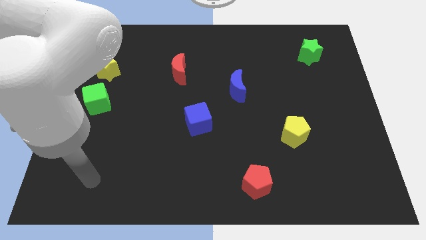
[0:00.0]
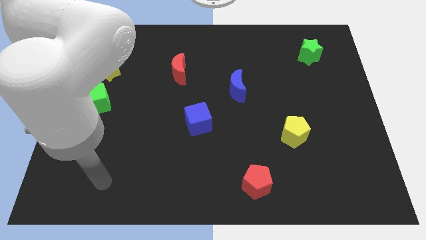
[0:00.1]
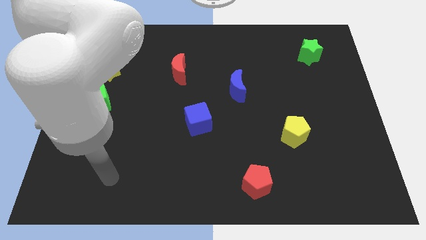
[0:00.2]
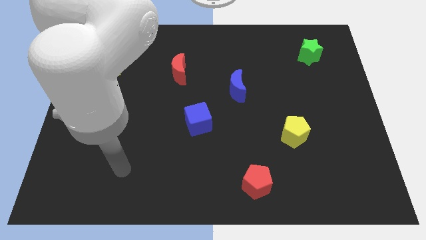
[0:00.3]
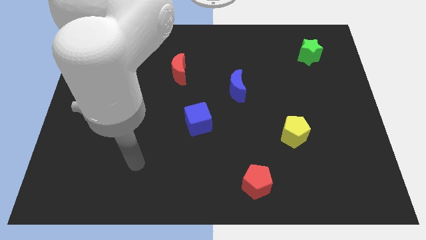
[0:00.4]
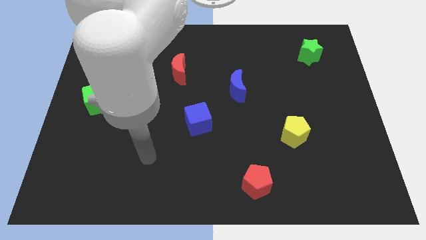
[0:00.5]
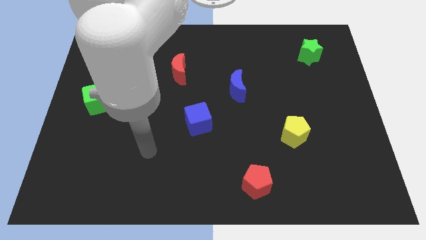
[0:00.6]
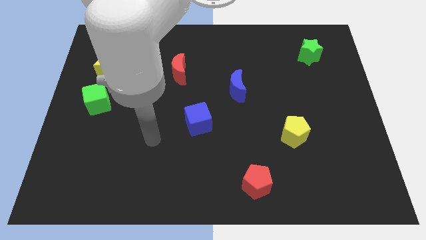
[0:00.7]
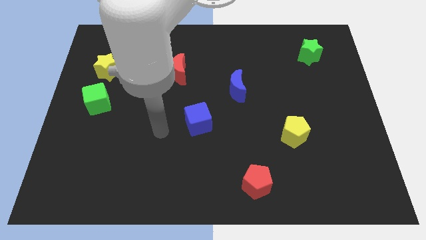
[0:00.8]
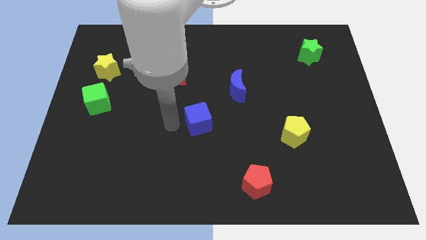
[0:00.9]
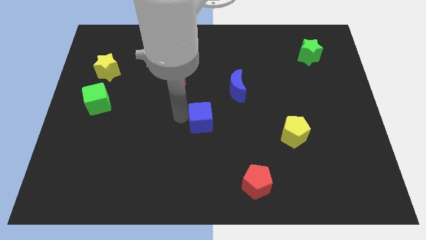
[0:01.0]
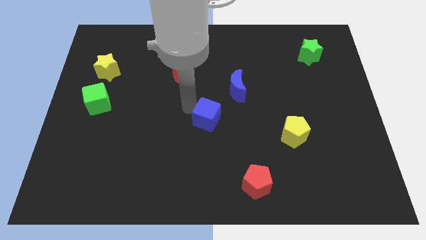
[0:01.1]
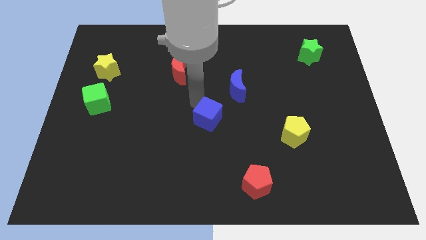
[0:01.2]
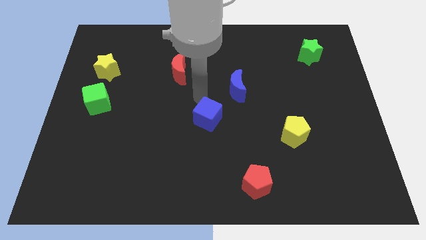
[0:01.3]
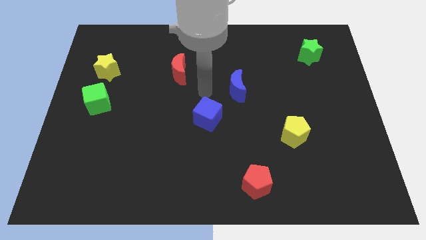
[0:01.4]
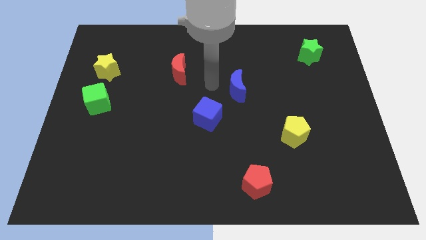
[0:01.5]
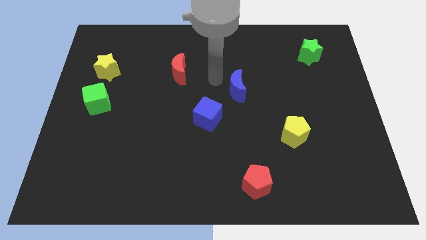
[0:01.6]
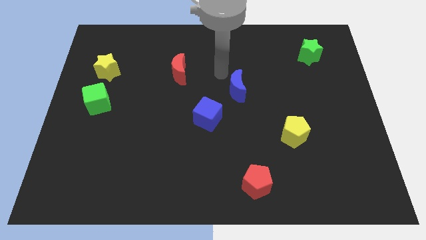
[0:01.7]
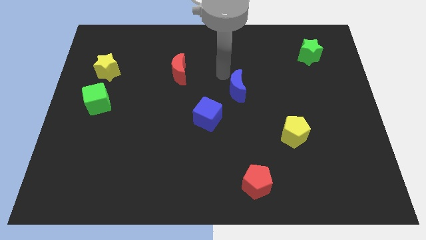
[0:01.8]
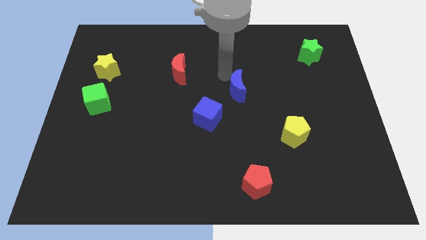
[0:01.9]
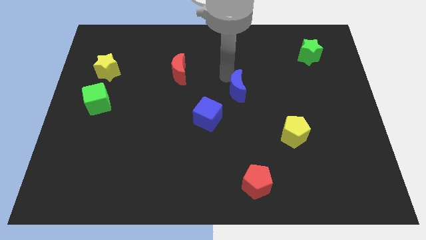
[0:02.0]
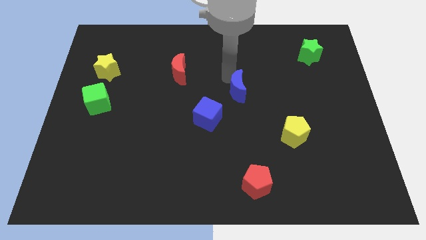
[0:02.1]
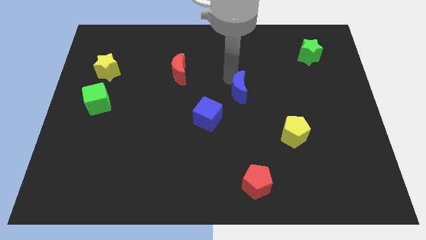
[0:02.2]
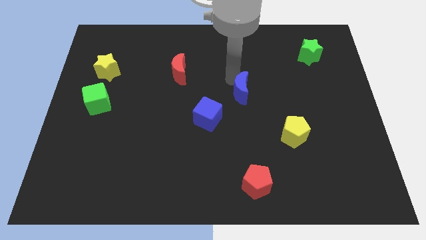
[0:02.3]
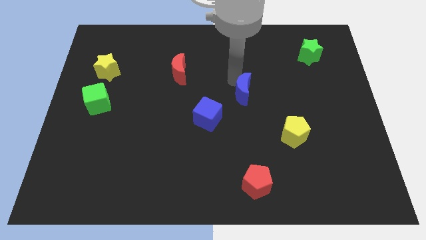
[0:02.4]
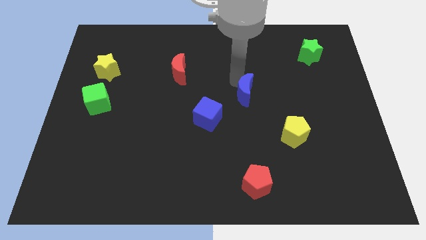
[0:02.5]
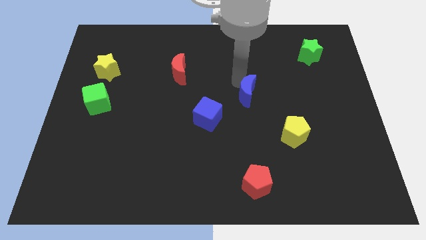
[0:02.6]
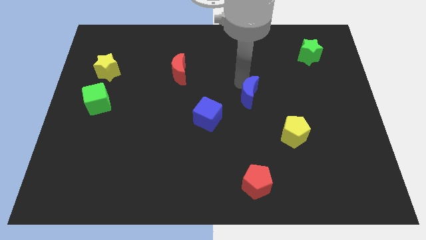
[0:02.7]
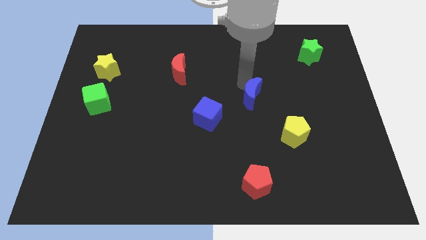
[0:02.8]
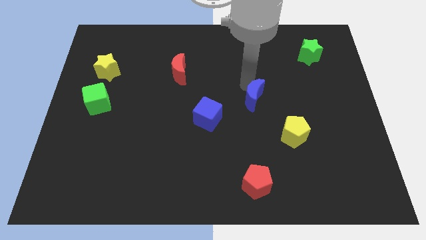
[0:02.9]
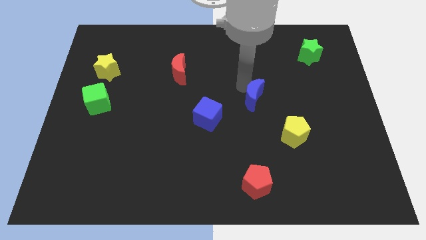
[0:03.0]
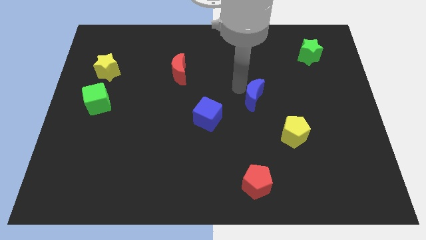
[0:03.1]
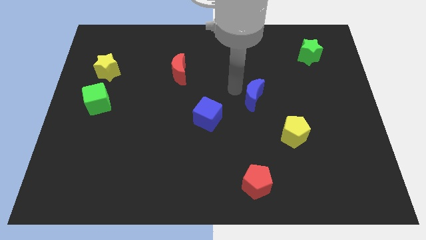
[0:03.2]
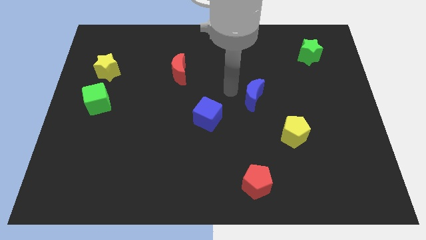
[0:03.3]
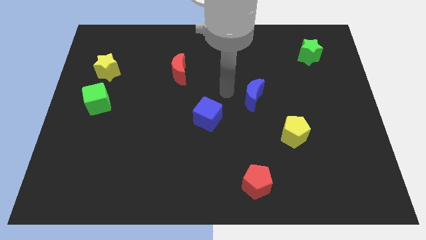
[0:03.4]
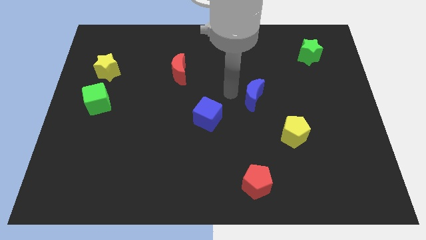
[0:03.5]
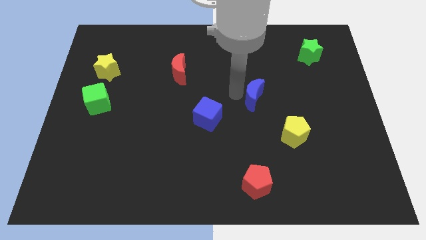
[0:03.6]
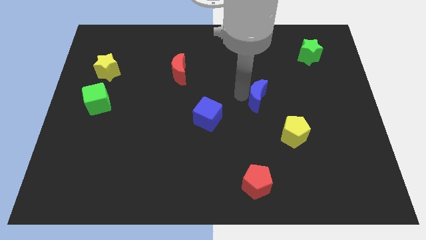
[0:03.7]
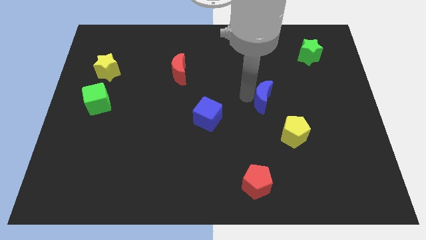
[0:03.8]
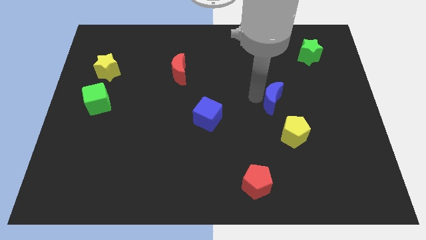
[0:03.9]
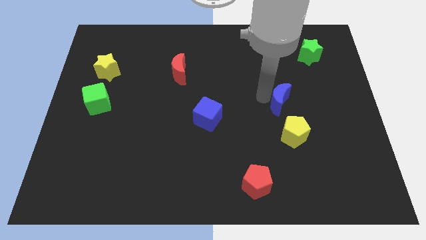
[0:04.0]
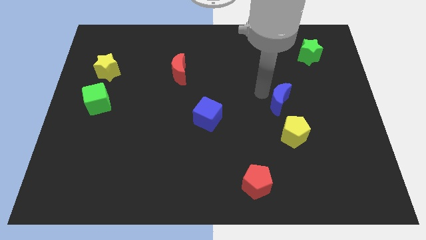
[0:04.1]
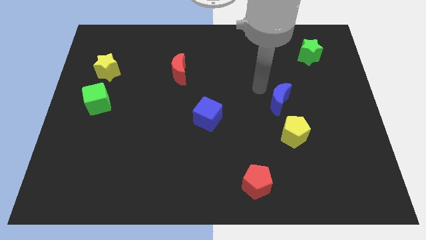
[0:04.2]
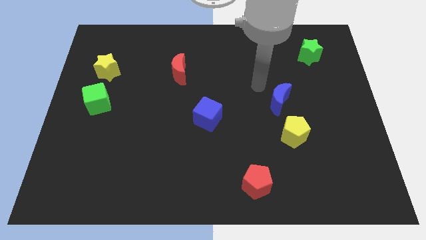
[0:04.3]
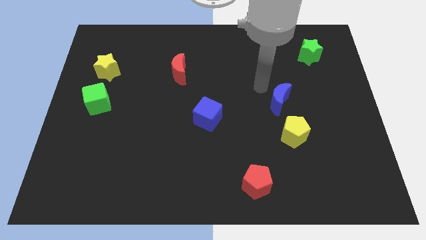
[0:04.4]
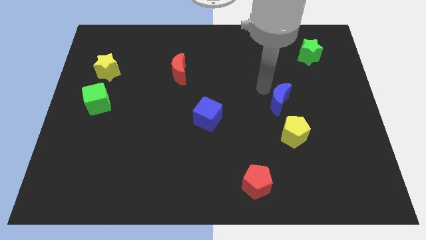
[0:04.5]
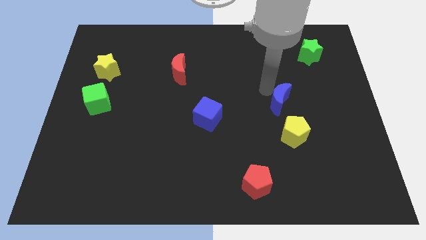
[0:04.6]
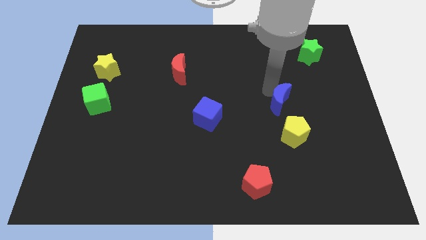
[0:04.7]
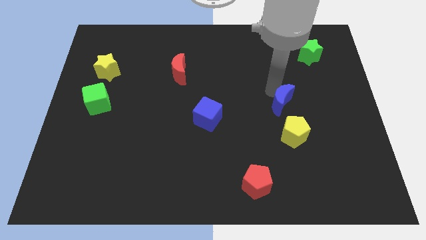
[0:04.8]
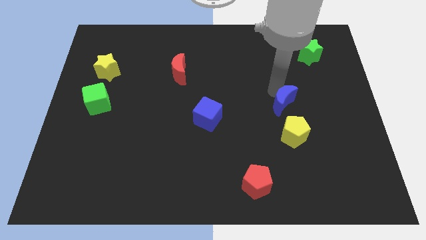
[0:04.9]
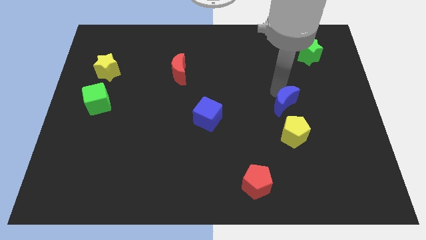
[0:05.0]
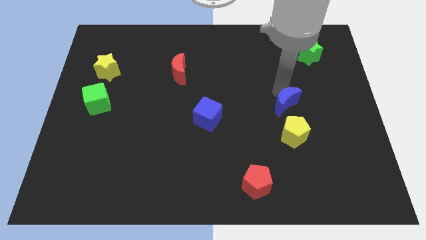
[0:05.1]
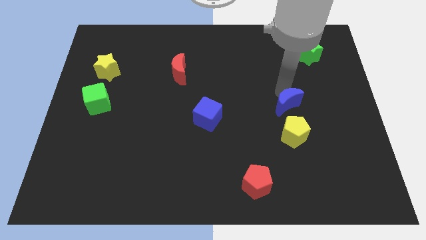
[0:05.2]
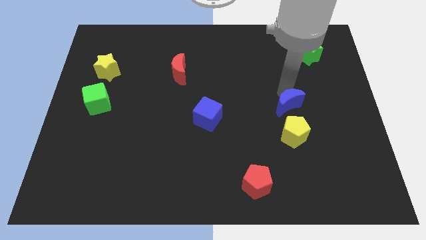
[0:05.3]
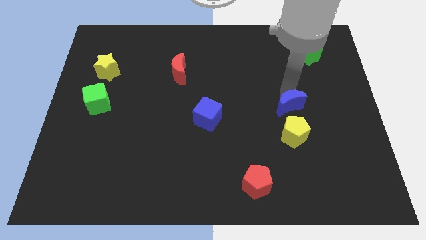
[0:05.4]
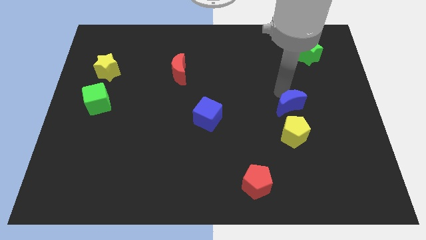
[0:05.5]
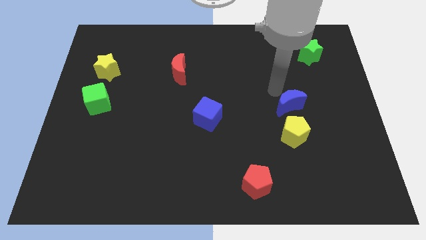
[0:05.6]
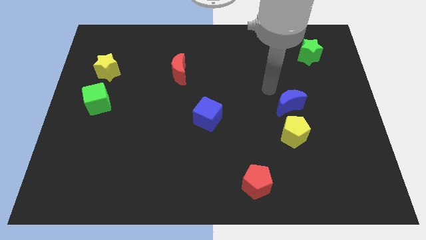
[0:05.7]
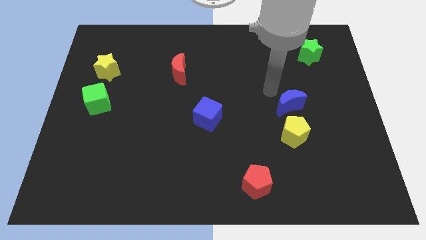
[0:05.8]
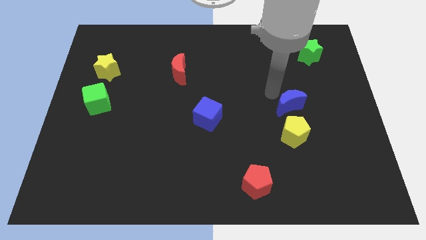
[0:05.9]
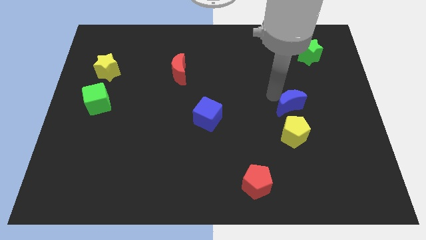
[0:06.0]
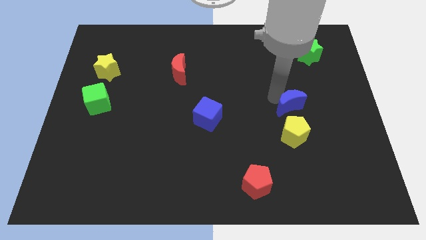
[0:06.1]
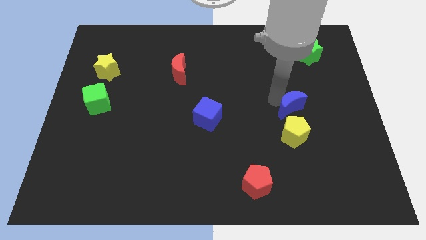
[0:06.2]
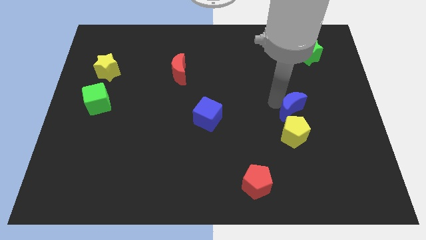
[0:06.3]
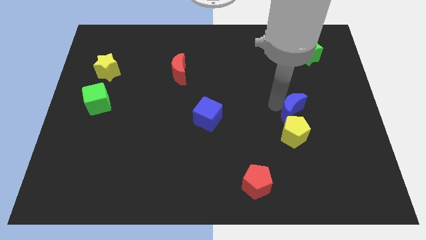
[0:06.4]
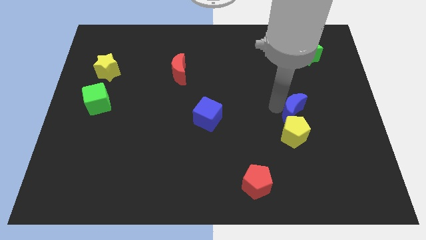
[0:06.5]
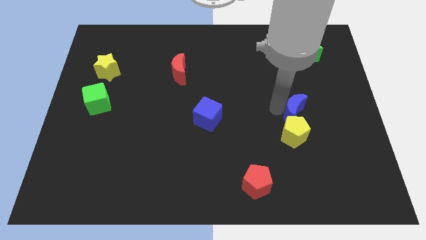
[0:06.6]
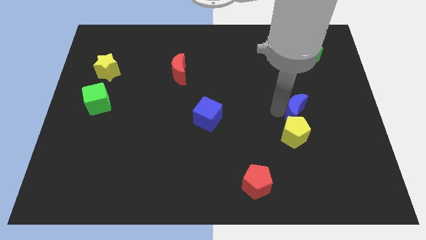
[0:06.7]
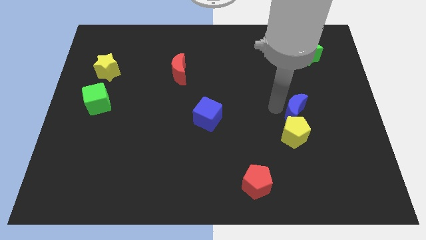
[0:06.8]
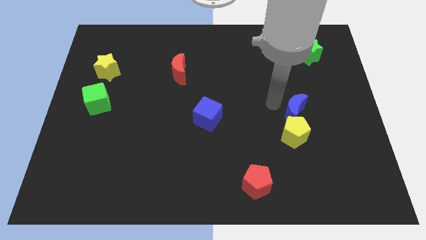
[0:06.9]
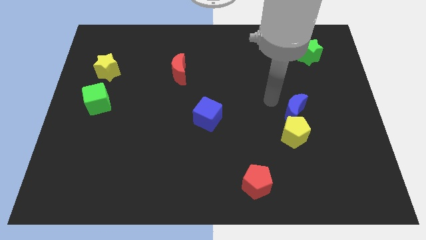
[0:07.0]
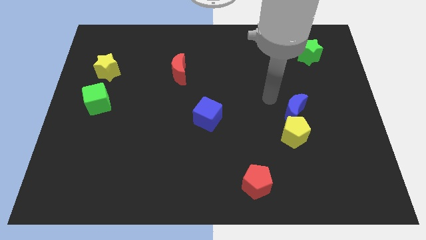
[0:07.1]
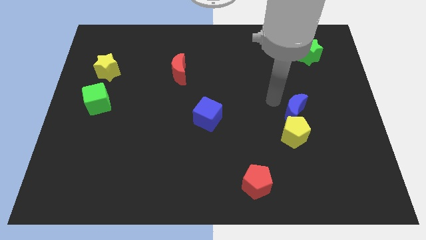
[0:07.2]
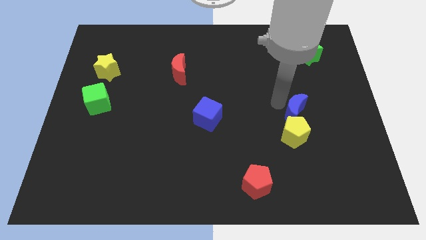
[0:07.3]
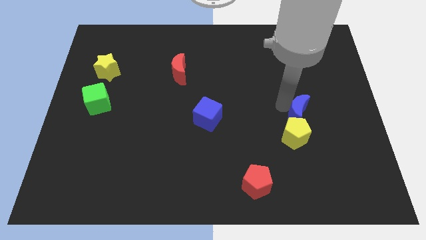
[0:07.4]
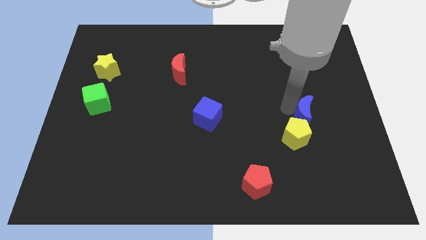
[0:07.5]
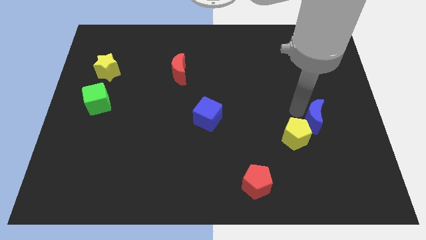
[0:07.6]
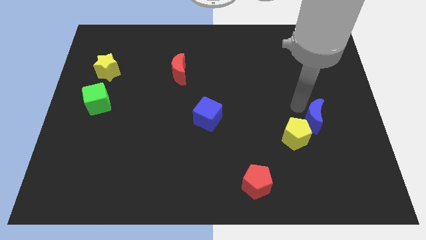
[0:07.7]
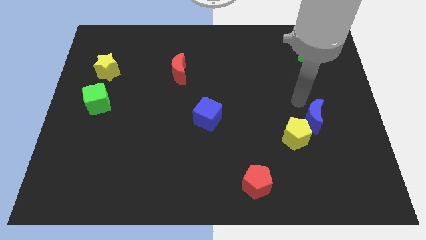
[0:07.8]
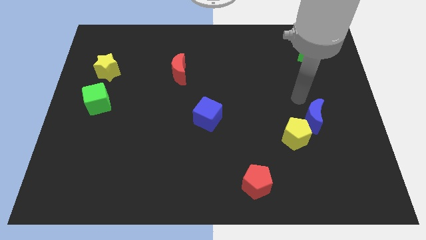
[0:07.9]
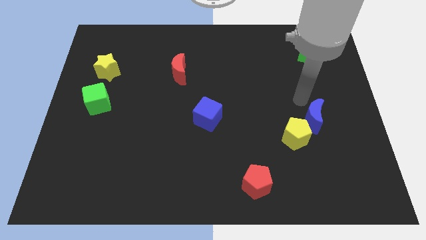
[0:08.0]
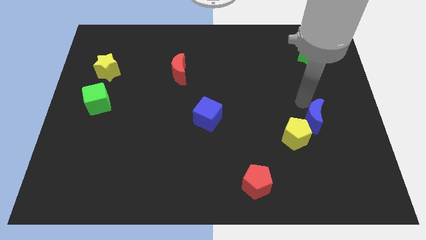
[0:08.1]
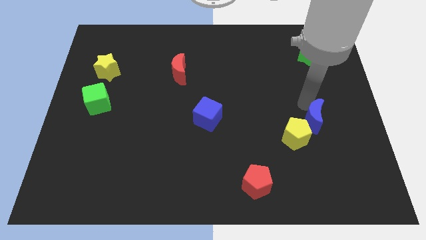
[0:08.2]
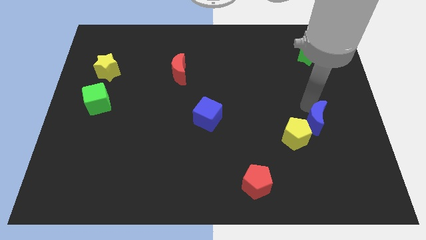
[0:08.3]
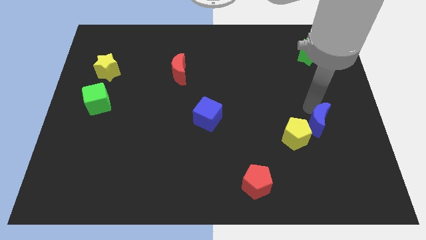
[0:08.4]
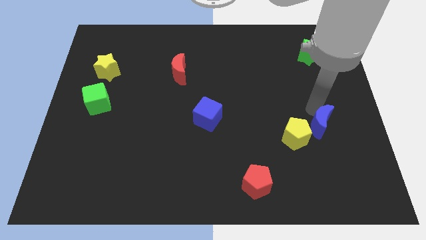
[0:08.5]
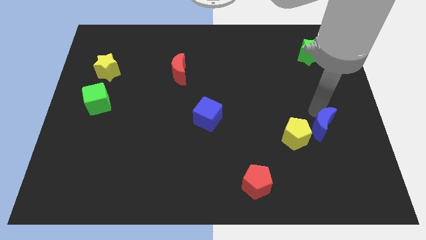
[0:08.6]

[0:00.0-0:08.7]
push the blue moon down and to the right diagonally
